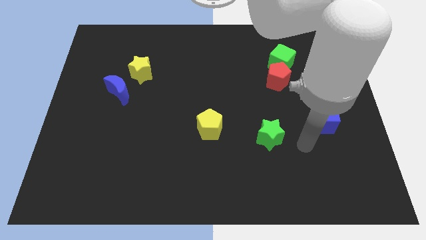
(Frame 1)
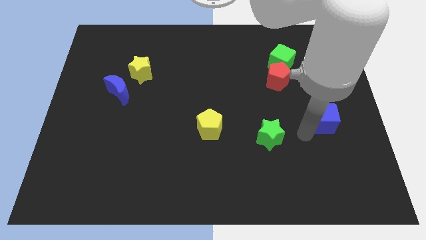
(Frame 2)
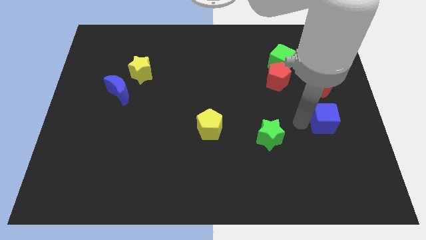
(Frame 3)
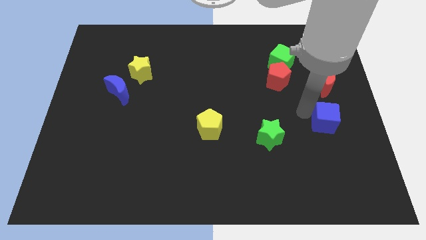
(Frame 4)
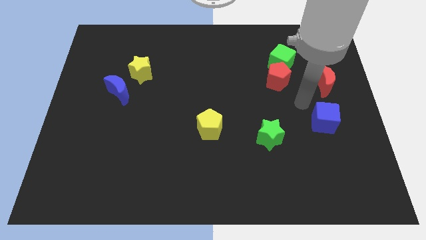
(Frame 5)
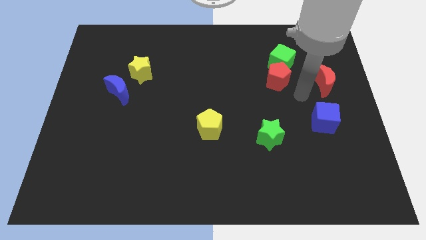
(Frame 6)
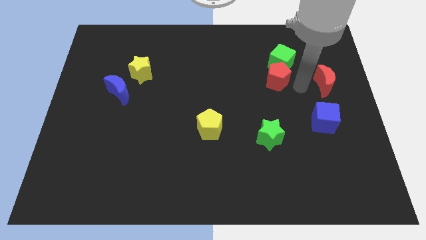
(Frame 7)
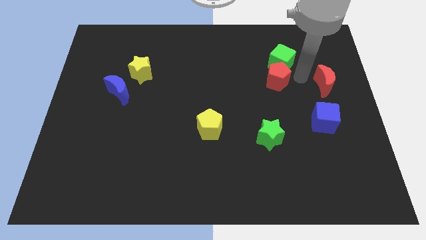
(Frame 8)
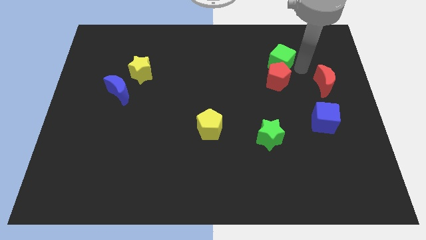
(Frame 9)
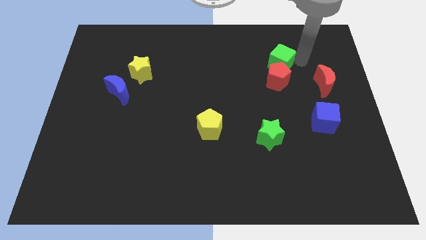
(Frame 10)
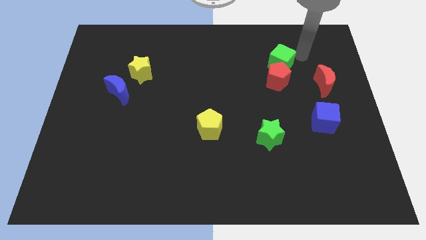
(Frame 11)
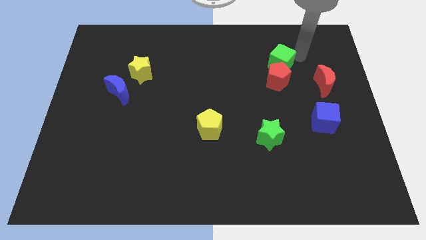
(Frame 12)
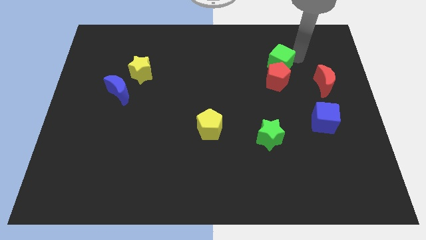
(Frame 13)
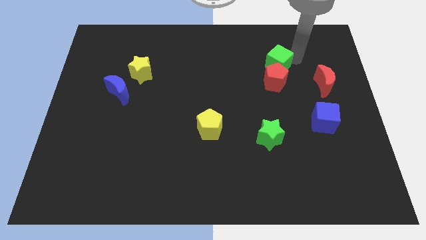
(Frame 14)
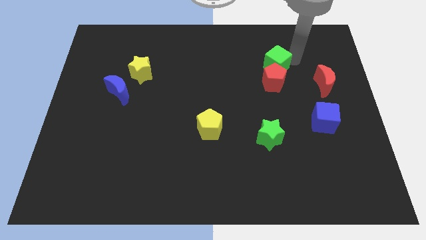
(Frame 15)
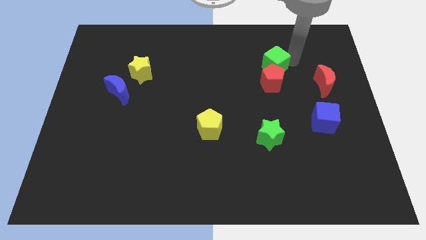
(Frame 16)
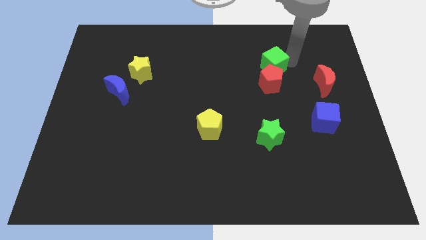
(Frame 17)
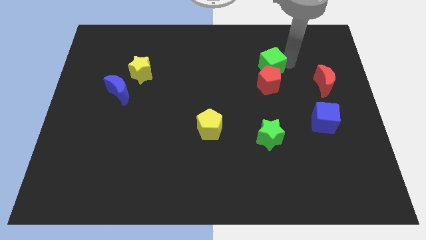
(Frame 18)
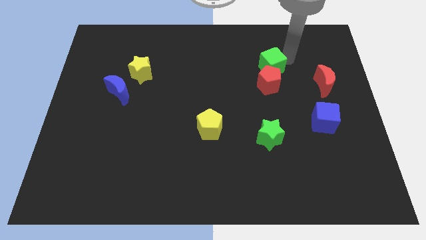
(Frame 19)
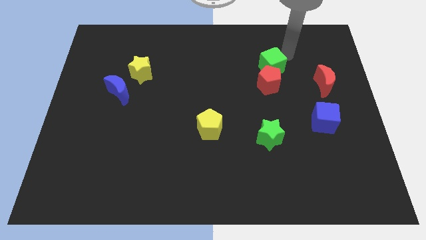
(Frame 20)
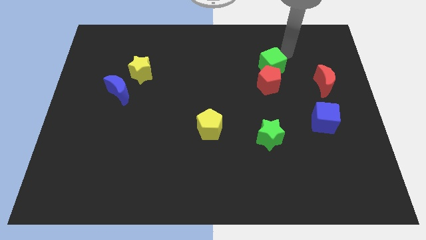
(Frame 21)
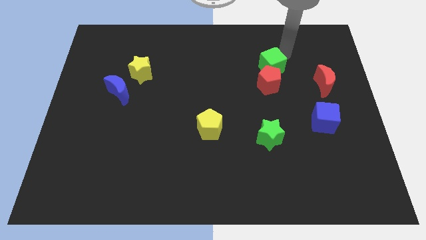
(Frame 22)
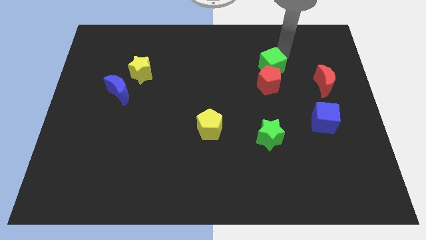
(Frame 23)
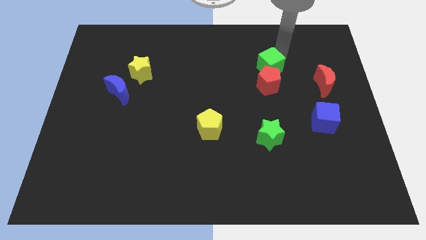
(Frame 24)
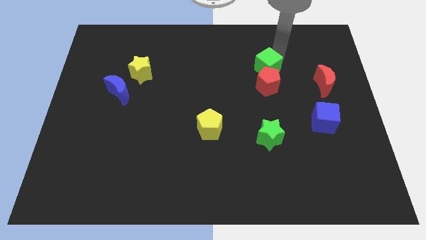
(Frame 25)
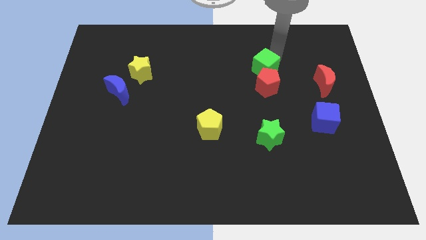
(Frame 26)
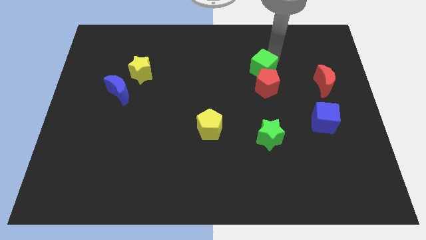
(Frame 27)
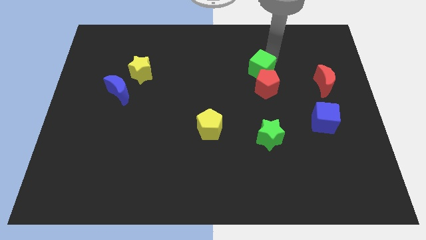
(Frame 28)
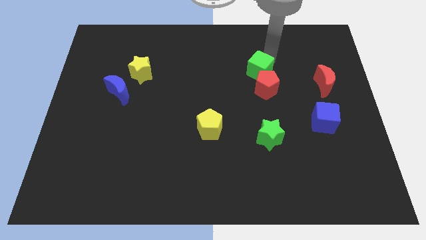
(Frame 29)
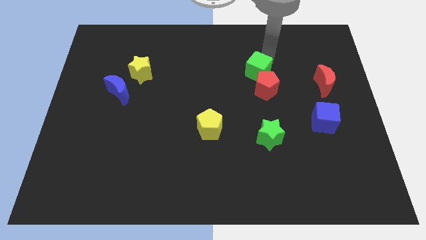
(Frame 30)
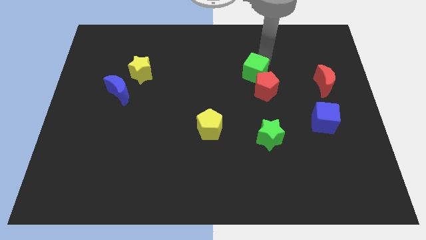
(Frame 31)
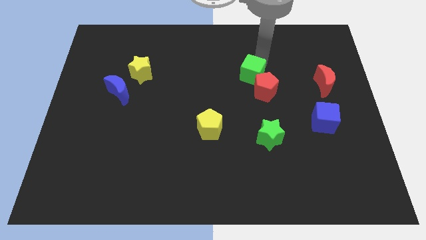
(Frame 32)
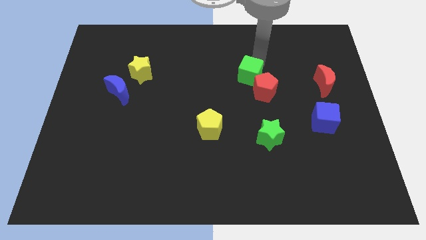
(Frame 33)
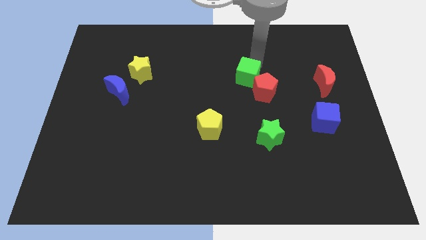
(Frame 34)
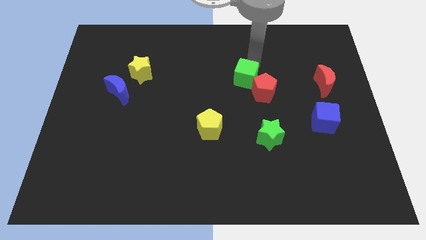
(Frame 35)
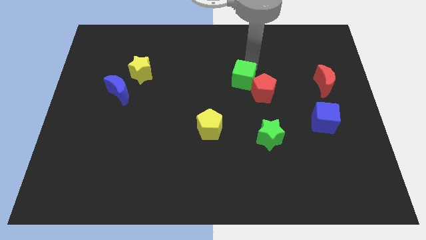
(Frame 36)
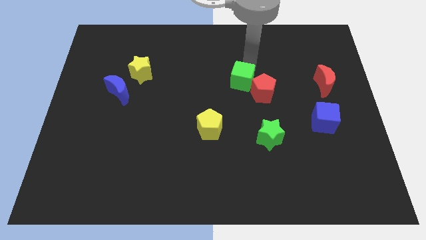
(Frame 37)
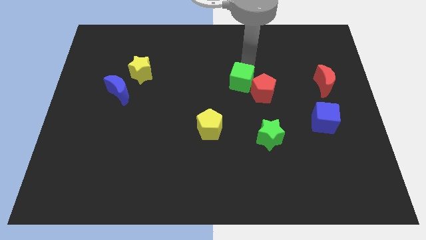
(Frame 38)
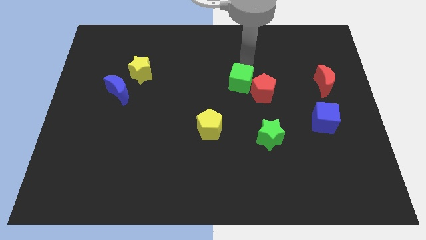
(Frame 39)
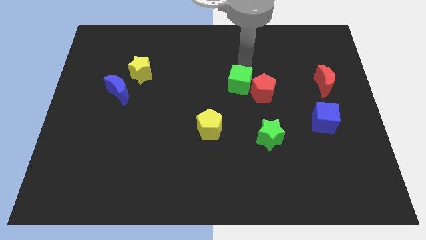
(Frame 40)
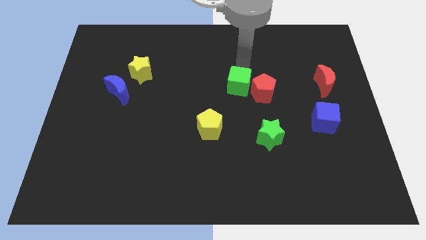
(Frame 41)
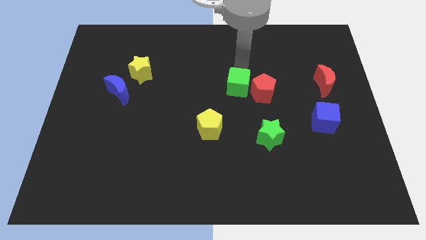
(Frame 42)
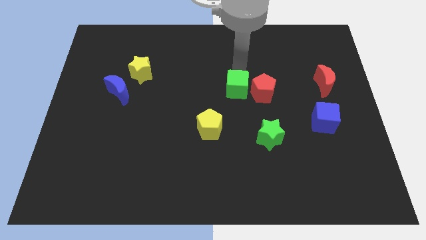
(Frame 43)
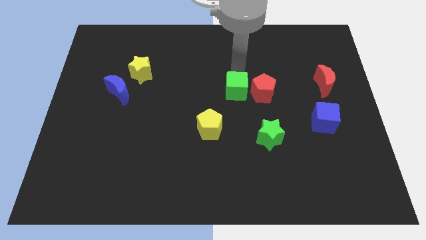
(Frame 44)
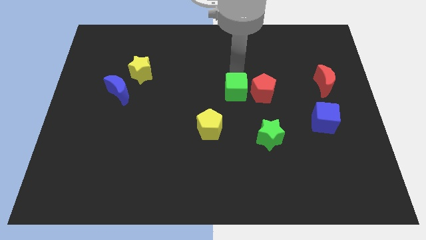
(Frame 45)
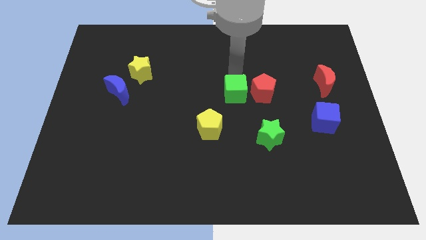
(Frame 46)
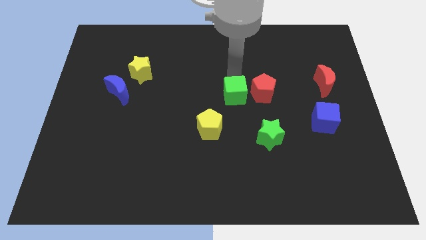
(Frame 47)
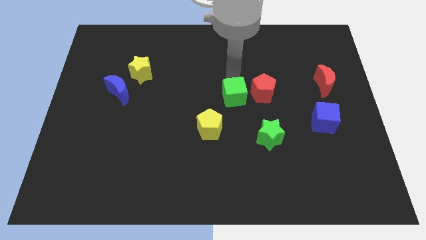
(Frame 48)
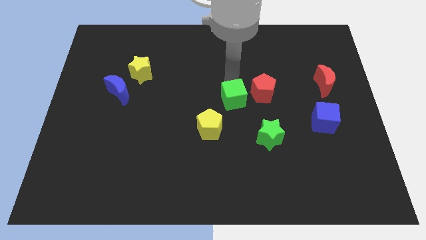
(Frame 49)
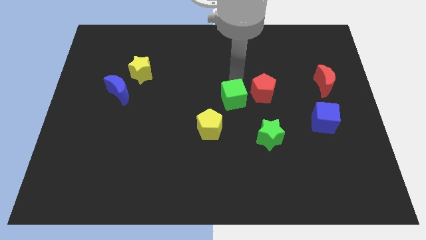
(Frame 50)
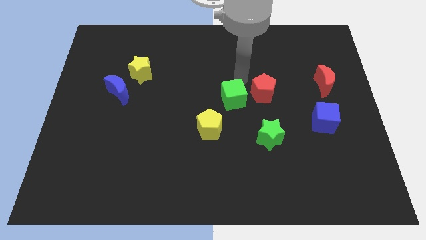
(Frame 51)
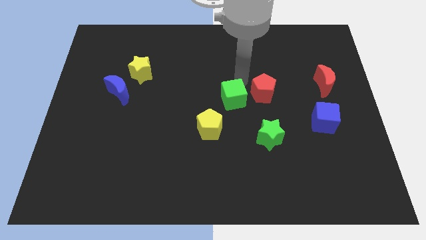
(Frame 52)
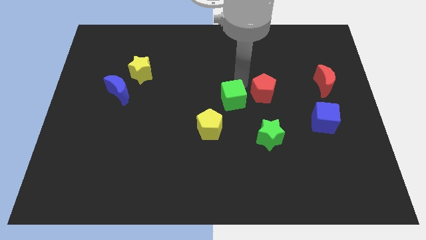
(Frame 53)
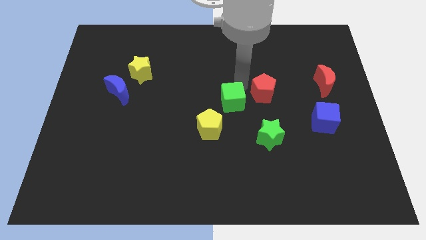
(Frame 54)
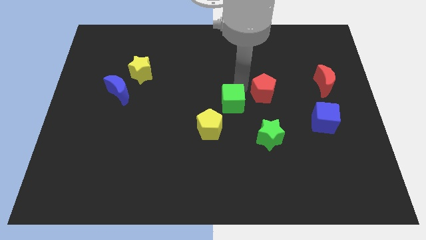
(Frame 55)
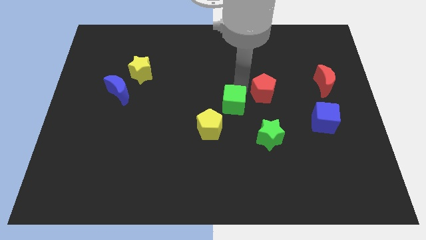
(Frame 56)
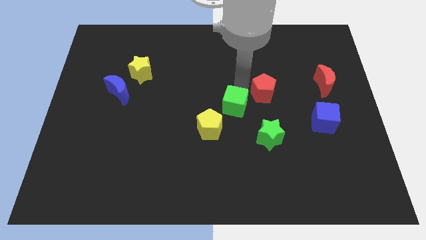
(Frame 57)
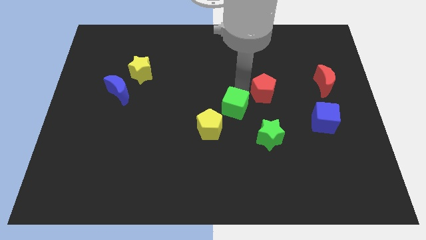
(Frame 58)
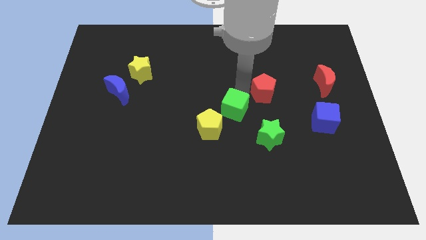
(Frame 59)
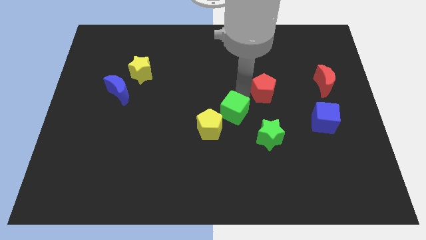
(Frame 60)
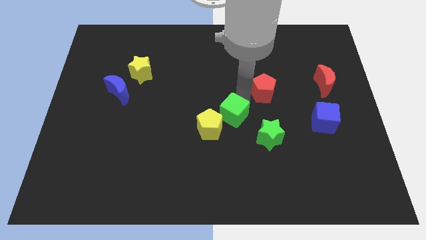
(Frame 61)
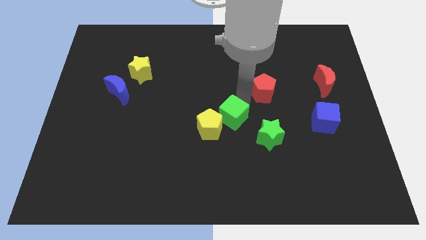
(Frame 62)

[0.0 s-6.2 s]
put the green cube close to the yellow pentagon

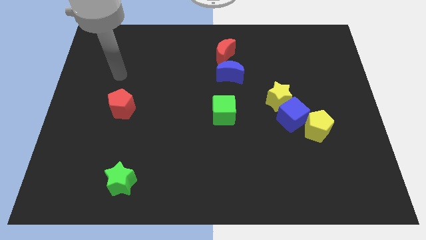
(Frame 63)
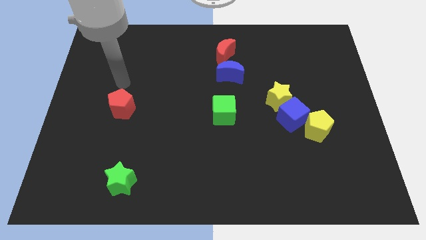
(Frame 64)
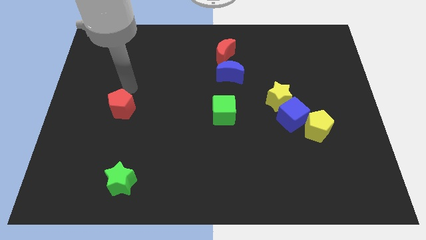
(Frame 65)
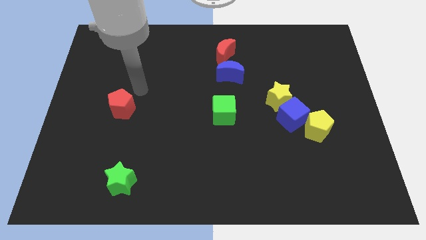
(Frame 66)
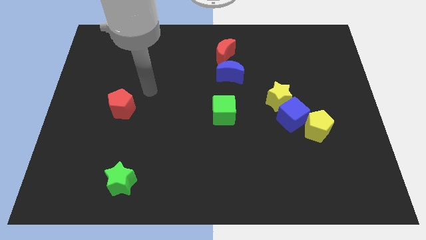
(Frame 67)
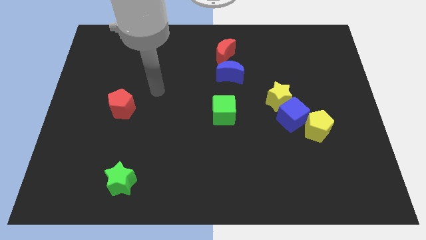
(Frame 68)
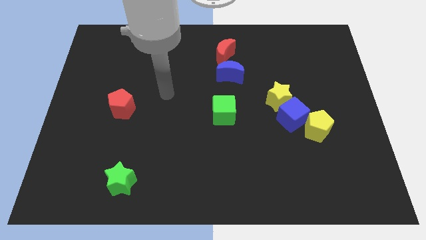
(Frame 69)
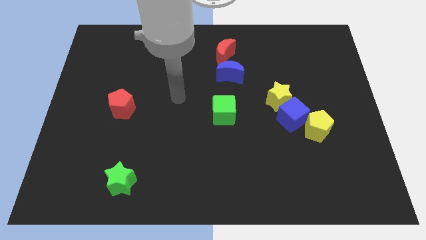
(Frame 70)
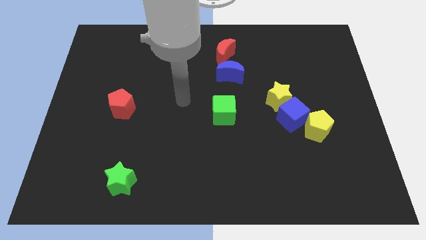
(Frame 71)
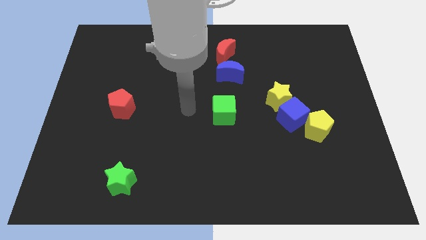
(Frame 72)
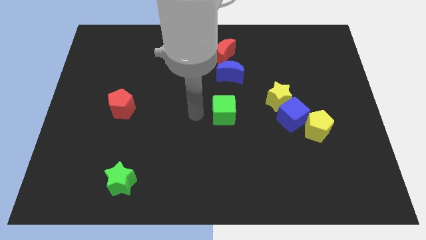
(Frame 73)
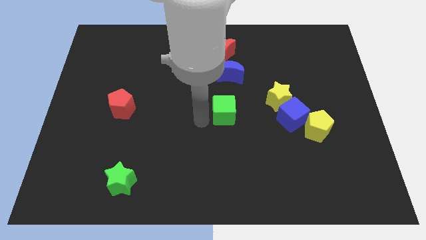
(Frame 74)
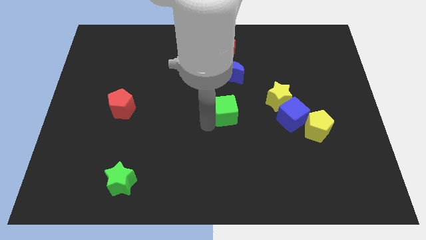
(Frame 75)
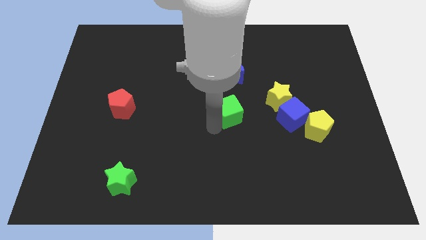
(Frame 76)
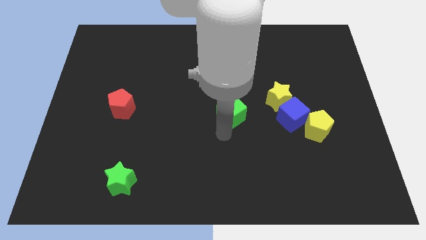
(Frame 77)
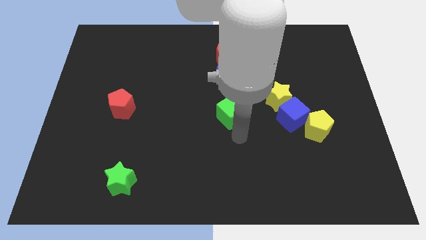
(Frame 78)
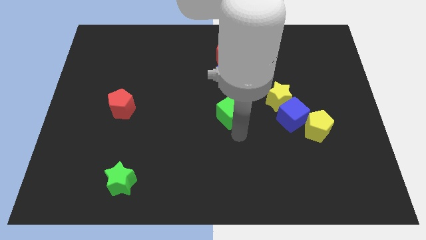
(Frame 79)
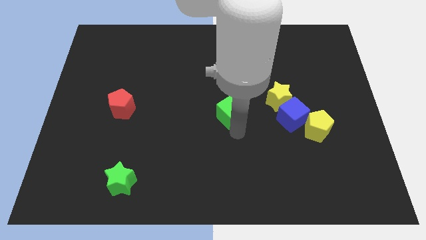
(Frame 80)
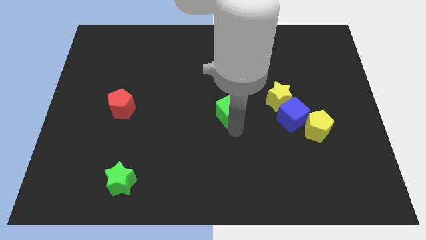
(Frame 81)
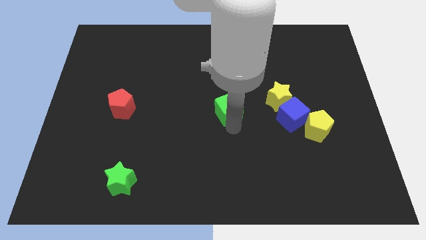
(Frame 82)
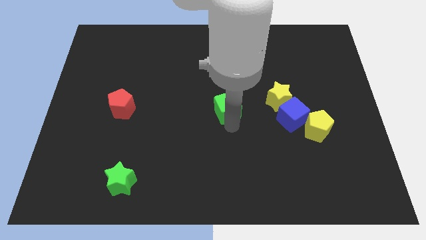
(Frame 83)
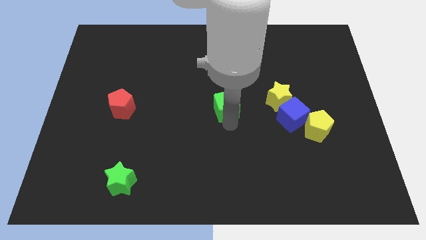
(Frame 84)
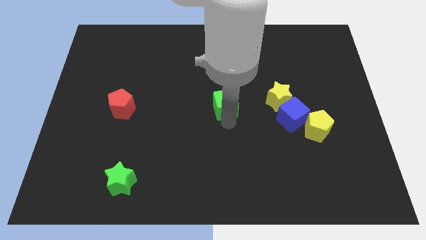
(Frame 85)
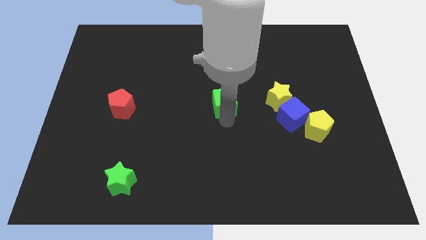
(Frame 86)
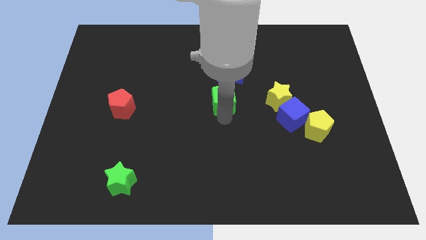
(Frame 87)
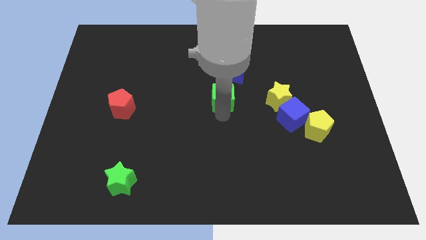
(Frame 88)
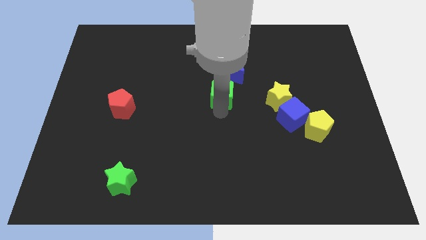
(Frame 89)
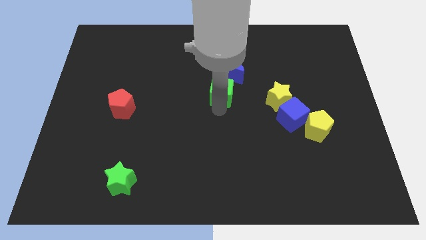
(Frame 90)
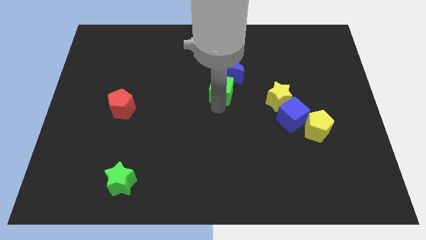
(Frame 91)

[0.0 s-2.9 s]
move the green cube to the blue moon
